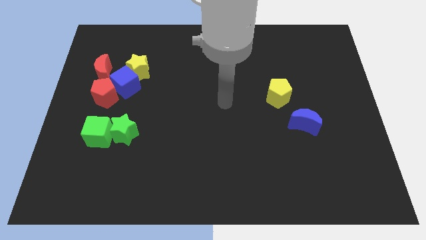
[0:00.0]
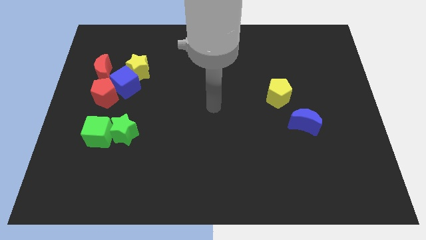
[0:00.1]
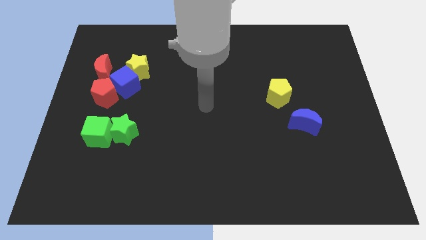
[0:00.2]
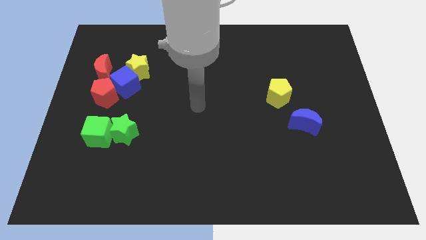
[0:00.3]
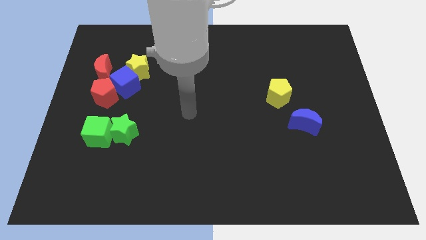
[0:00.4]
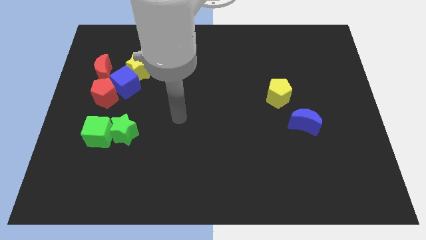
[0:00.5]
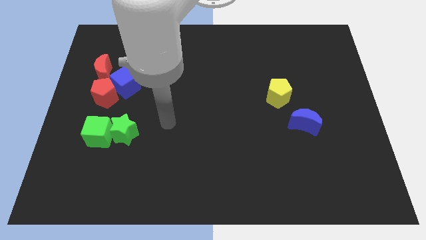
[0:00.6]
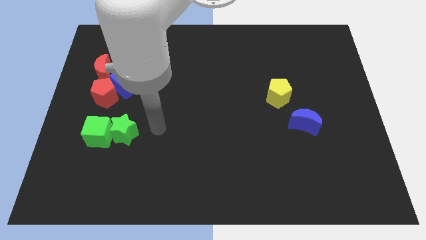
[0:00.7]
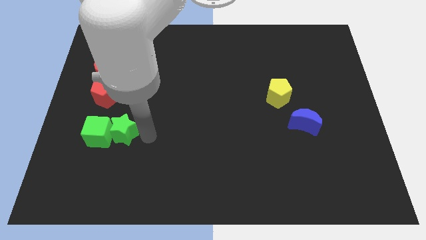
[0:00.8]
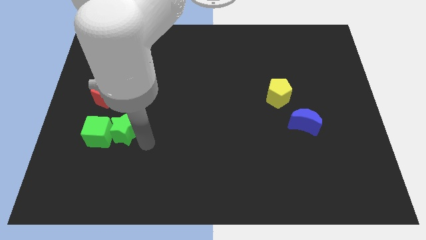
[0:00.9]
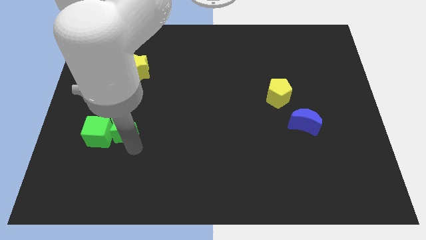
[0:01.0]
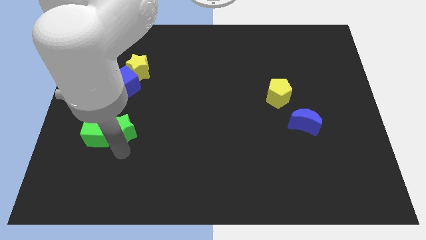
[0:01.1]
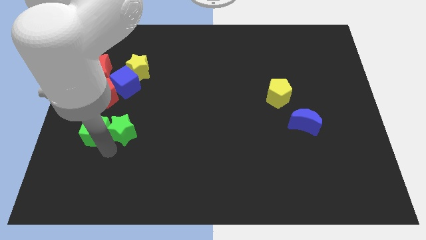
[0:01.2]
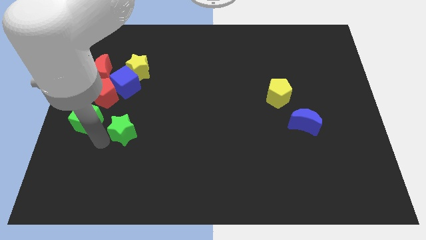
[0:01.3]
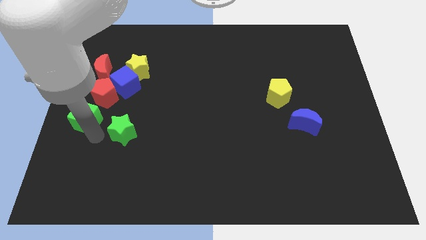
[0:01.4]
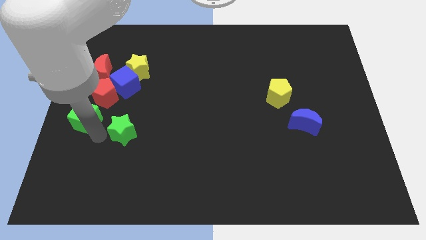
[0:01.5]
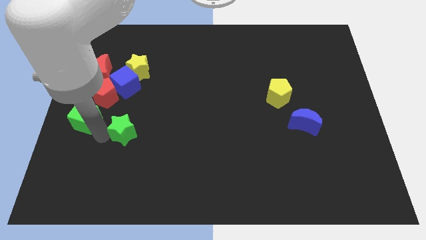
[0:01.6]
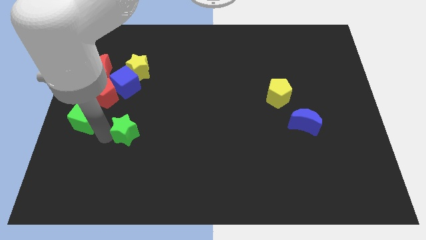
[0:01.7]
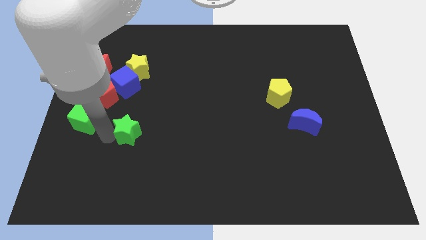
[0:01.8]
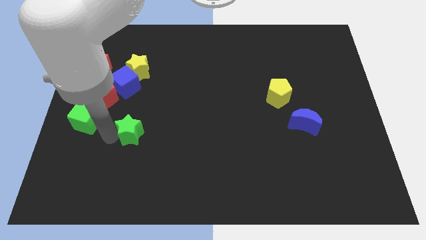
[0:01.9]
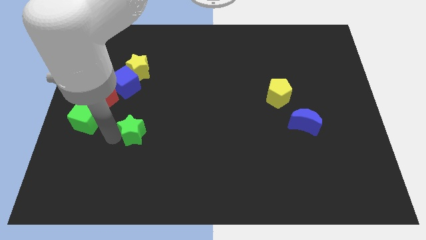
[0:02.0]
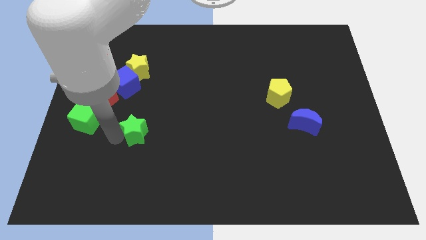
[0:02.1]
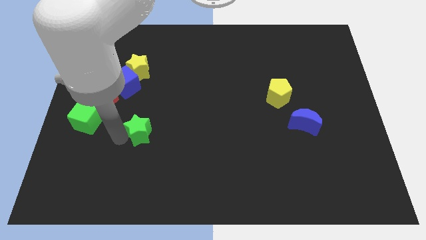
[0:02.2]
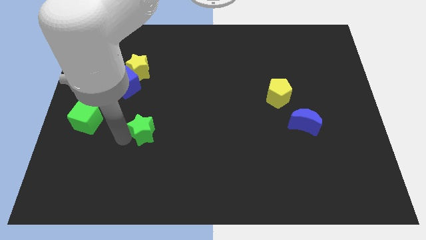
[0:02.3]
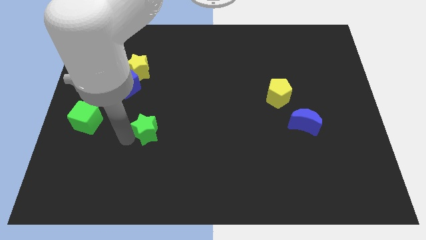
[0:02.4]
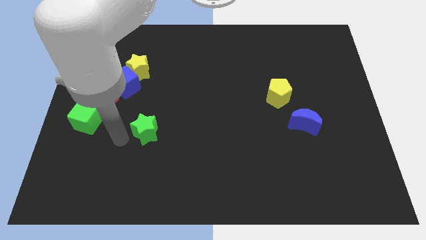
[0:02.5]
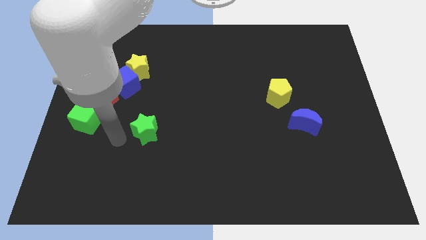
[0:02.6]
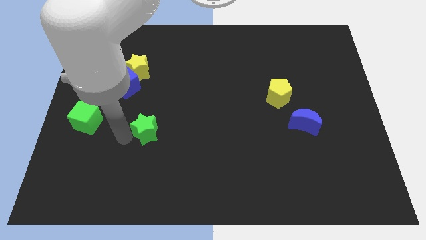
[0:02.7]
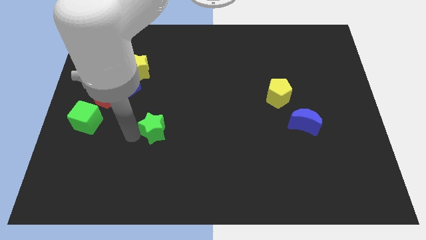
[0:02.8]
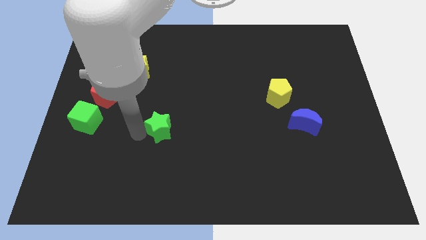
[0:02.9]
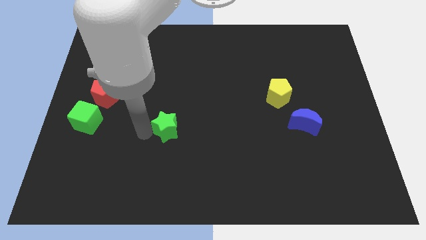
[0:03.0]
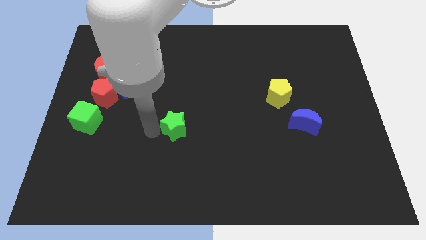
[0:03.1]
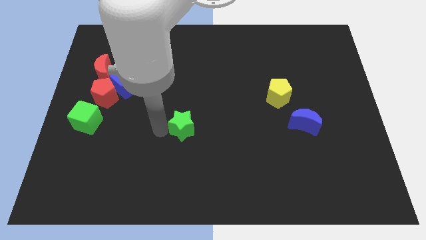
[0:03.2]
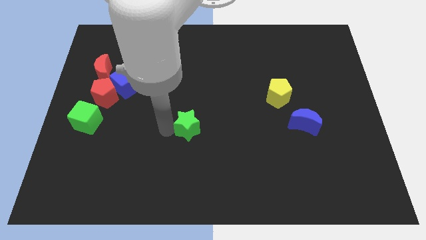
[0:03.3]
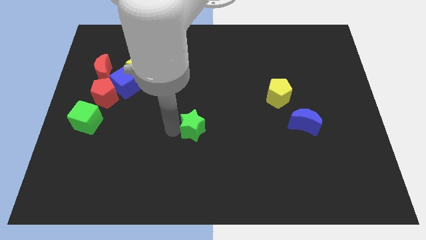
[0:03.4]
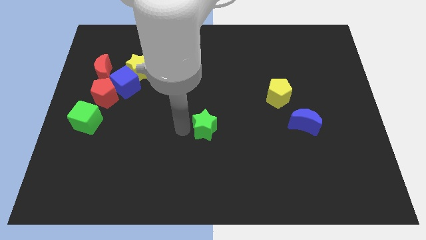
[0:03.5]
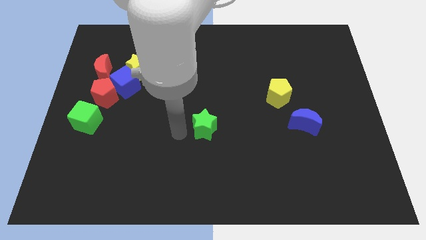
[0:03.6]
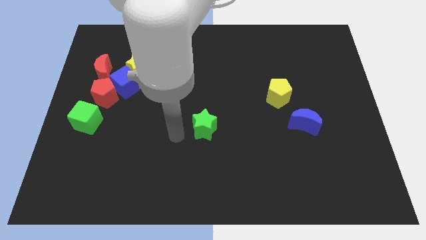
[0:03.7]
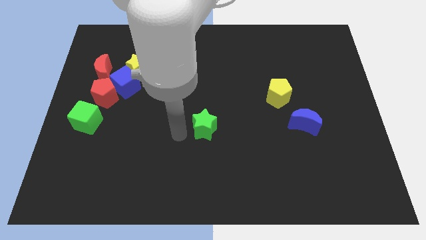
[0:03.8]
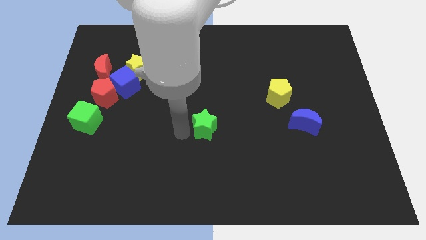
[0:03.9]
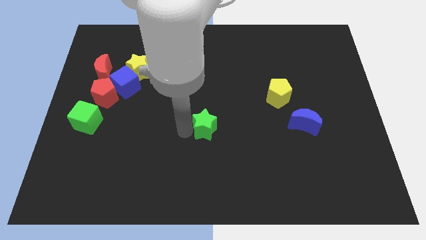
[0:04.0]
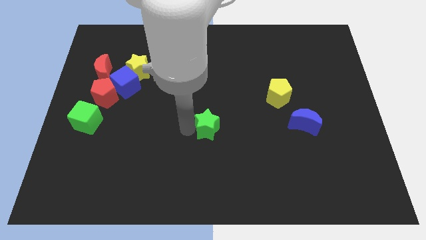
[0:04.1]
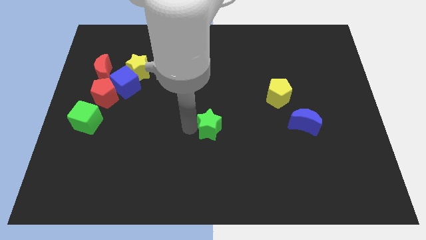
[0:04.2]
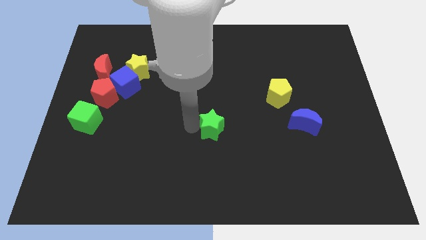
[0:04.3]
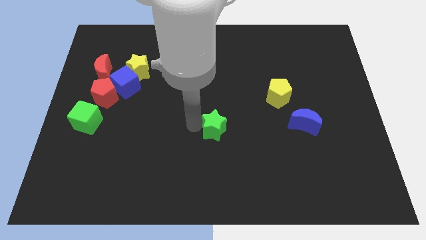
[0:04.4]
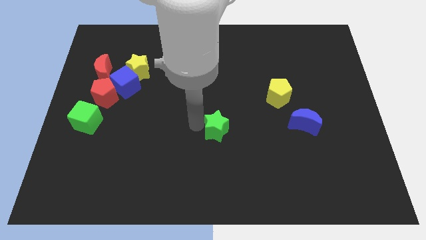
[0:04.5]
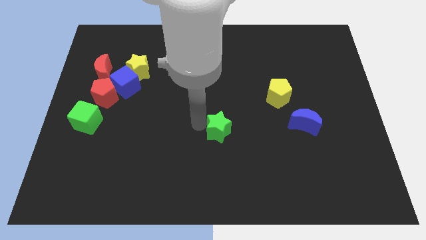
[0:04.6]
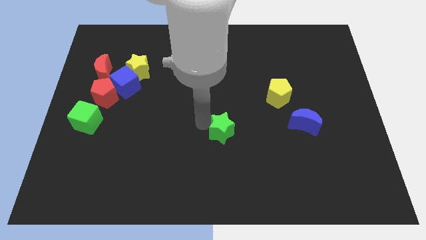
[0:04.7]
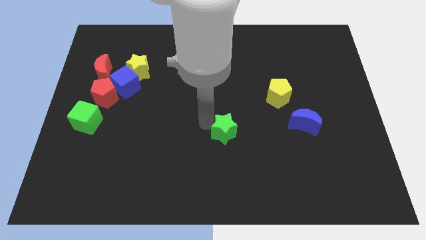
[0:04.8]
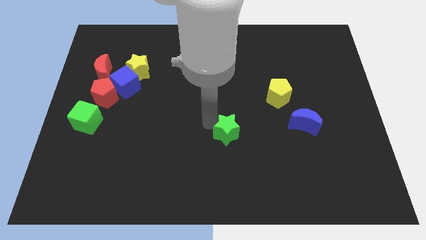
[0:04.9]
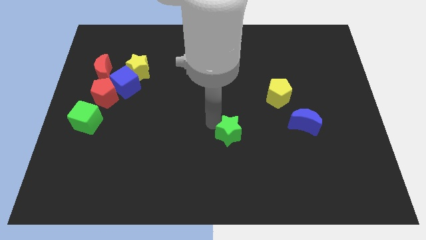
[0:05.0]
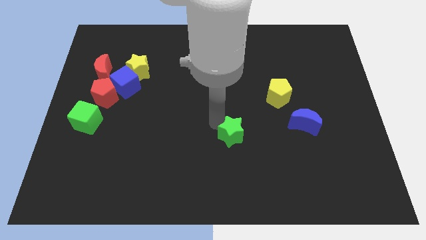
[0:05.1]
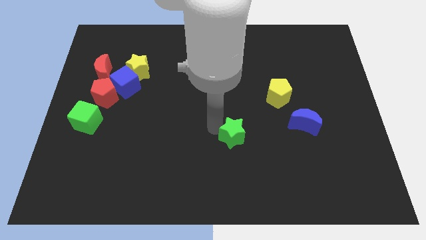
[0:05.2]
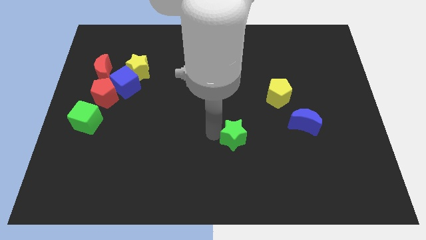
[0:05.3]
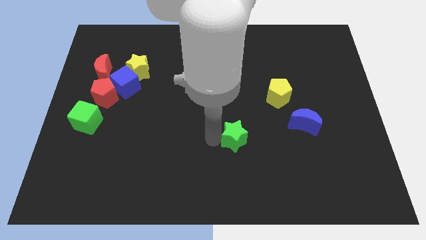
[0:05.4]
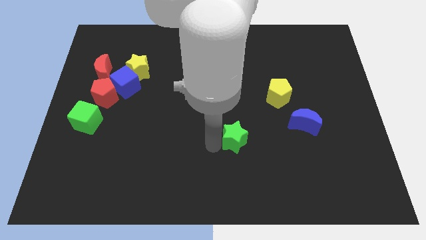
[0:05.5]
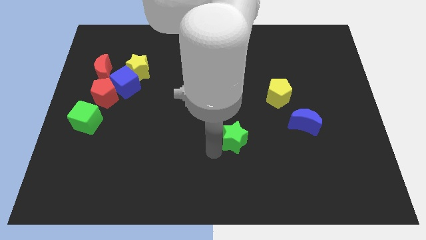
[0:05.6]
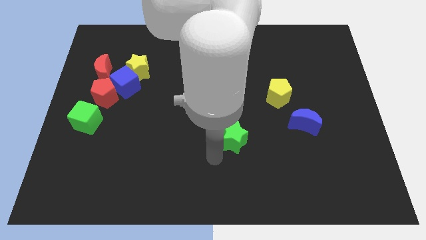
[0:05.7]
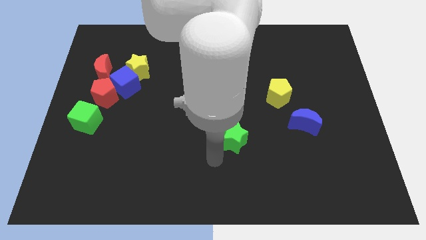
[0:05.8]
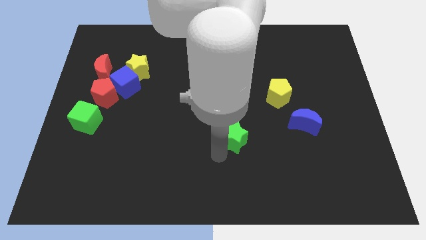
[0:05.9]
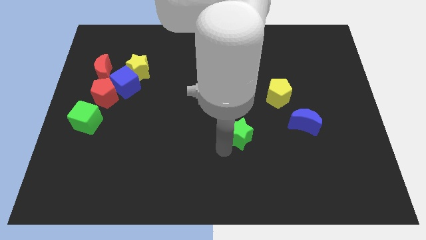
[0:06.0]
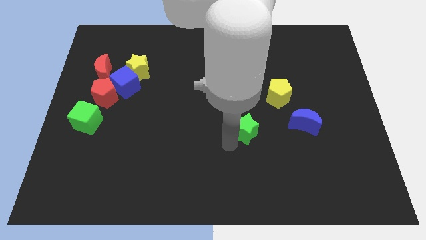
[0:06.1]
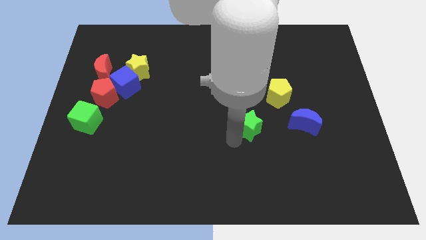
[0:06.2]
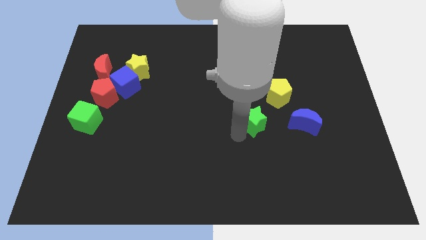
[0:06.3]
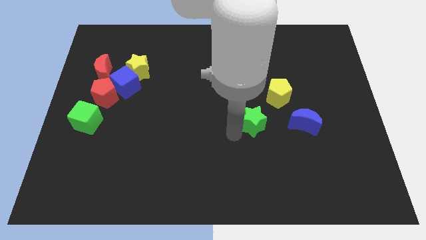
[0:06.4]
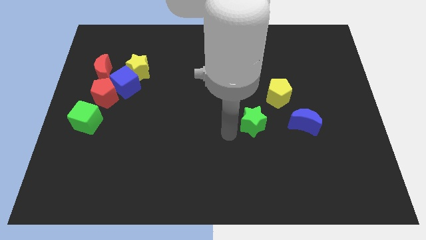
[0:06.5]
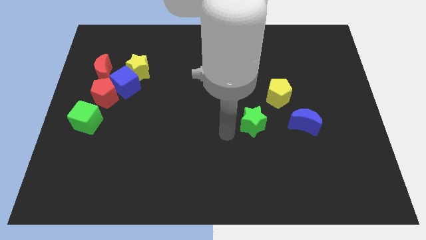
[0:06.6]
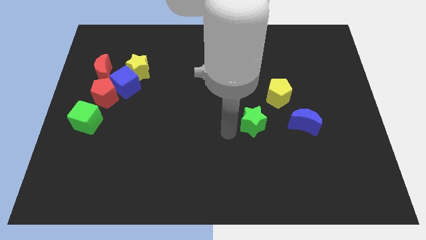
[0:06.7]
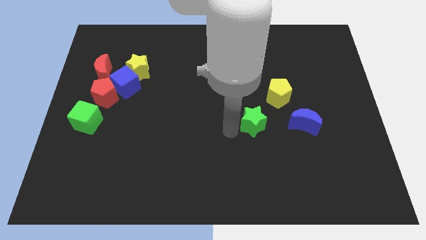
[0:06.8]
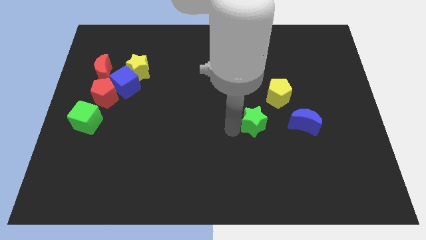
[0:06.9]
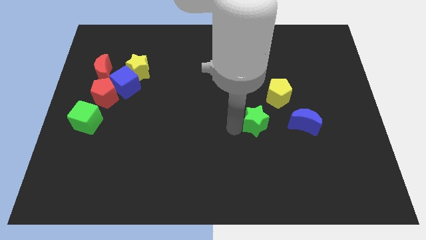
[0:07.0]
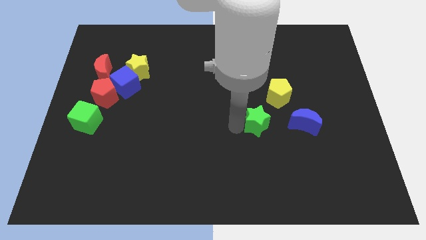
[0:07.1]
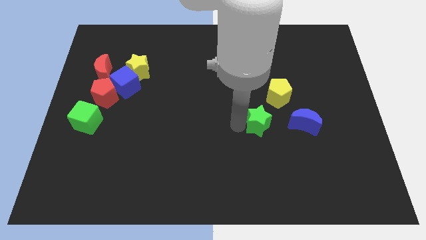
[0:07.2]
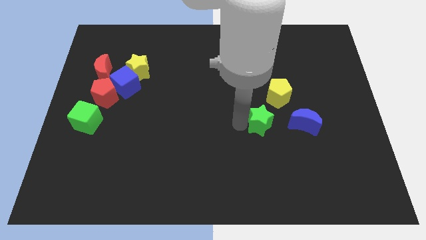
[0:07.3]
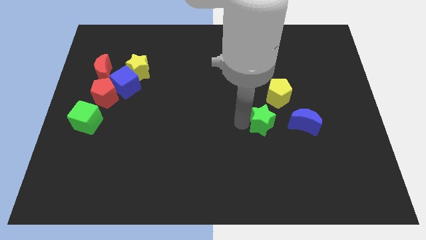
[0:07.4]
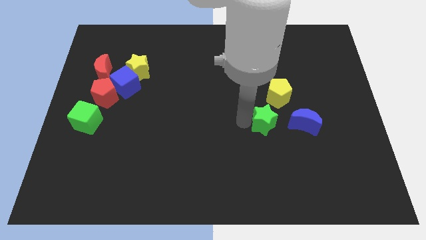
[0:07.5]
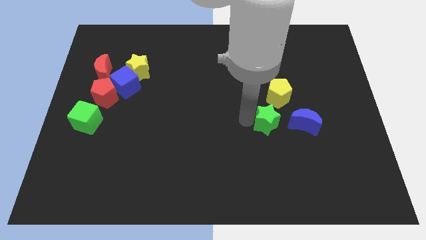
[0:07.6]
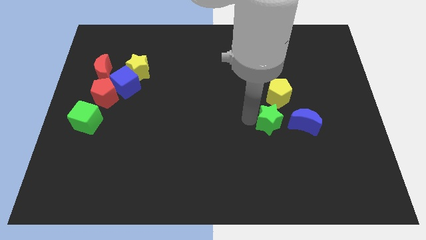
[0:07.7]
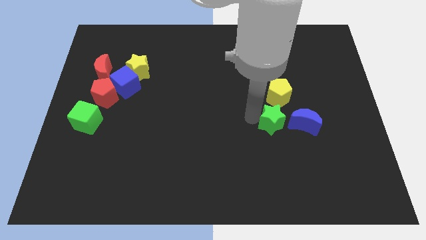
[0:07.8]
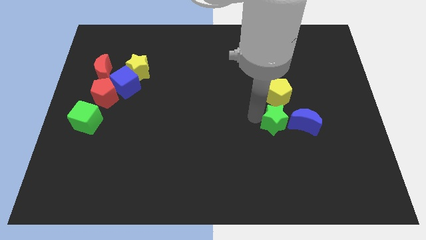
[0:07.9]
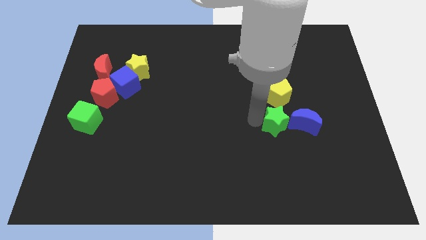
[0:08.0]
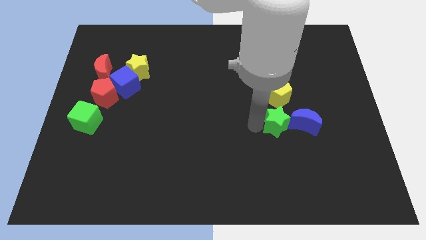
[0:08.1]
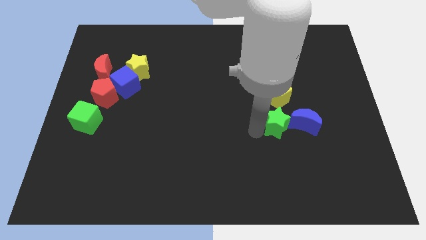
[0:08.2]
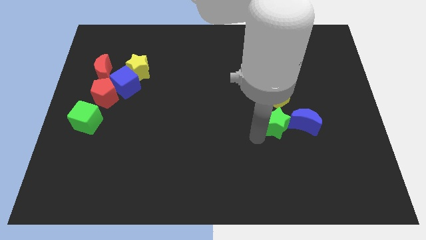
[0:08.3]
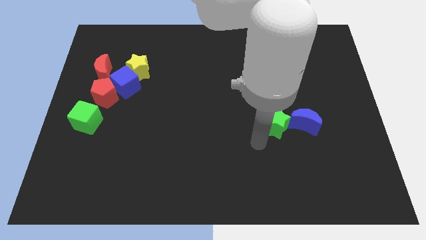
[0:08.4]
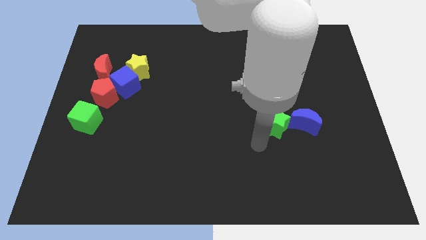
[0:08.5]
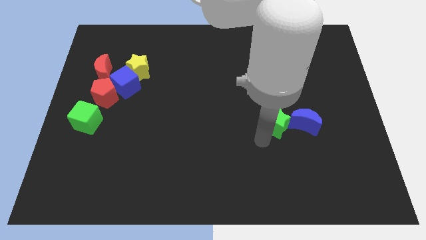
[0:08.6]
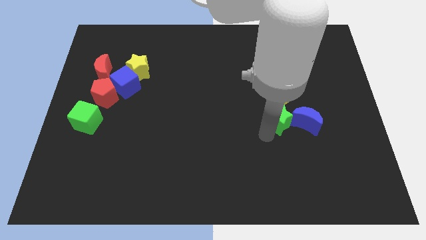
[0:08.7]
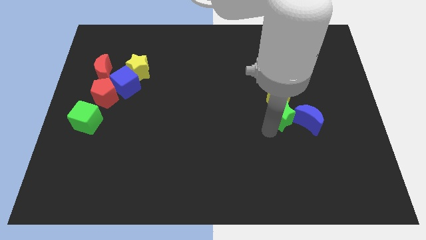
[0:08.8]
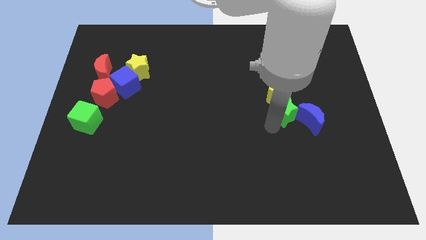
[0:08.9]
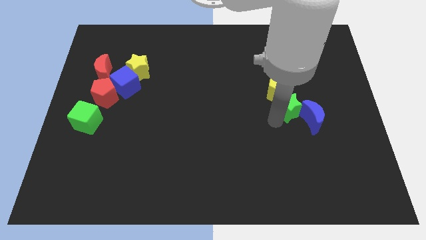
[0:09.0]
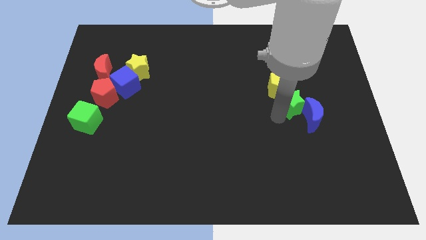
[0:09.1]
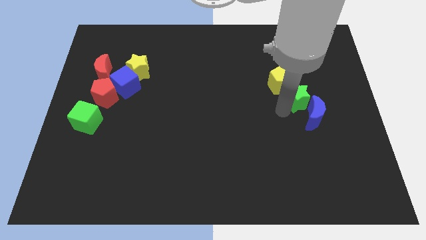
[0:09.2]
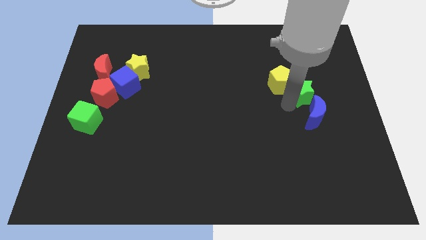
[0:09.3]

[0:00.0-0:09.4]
move the green star to the right side of the yellow pentagon
